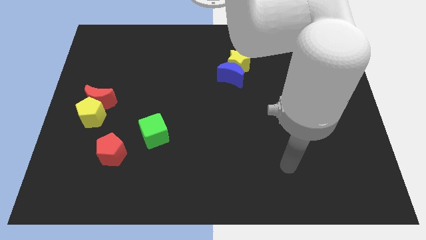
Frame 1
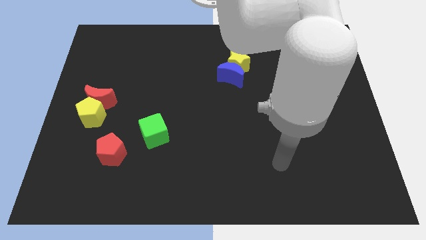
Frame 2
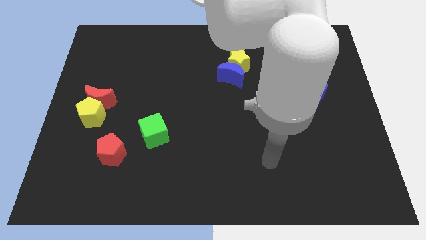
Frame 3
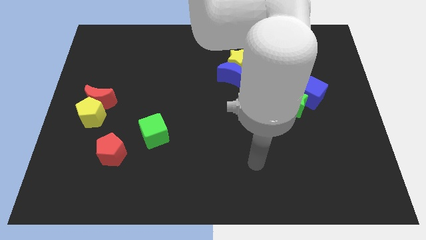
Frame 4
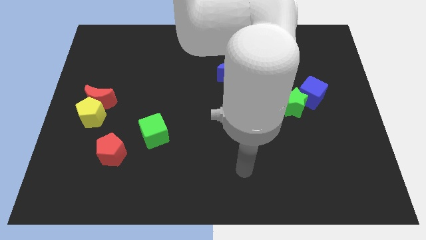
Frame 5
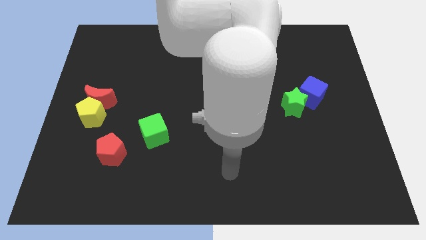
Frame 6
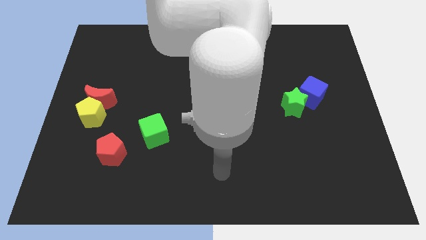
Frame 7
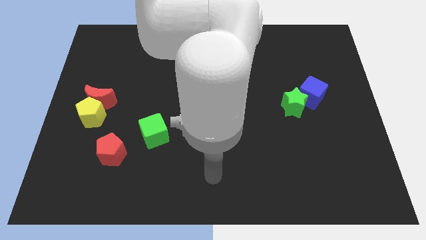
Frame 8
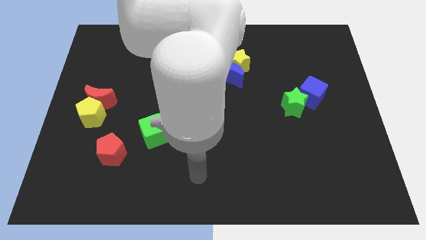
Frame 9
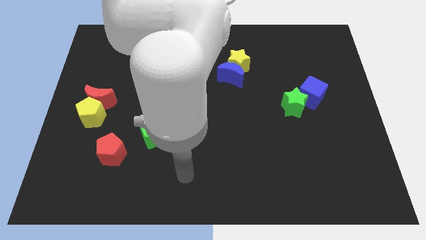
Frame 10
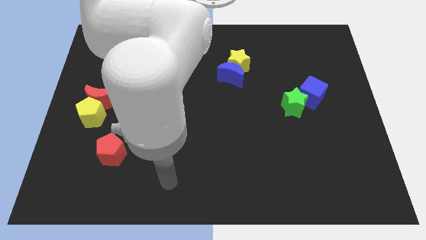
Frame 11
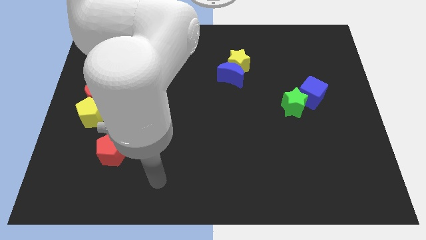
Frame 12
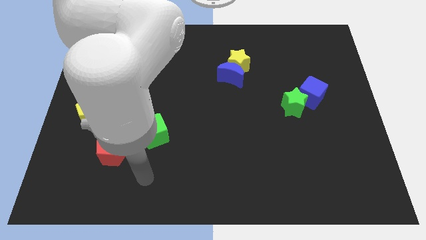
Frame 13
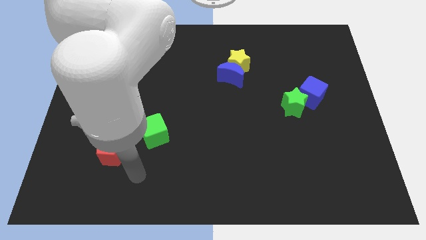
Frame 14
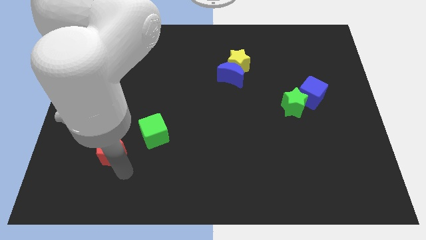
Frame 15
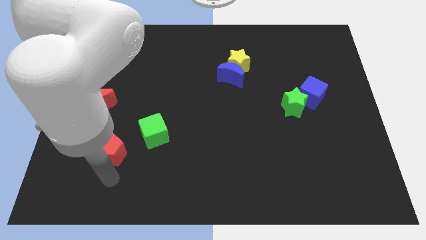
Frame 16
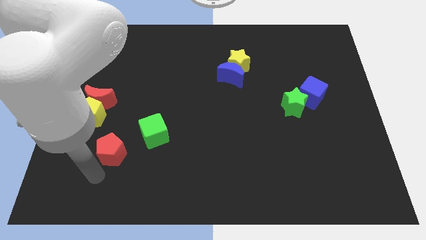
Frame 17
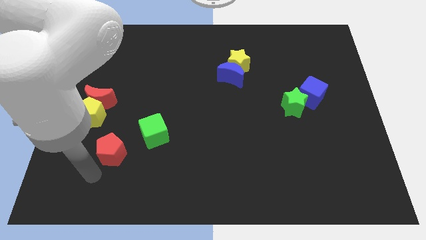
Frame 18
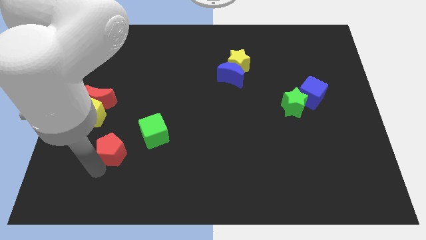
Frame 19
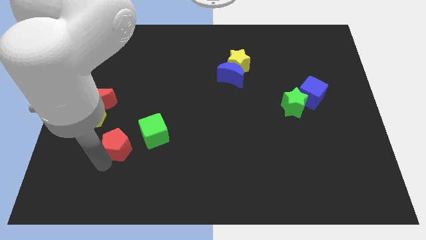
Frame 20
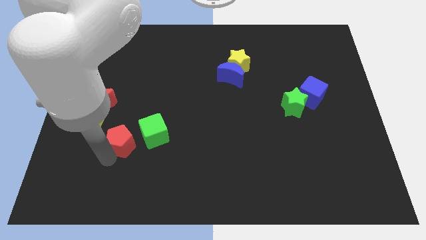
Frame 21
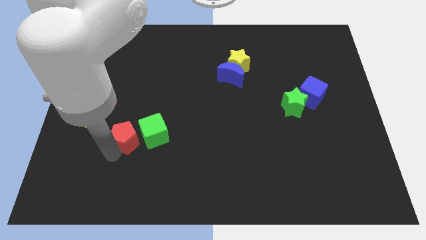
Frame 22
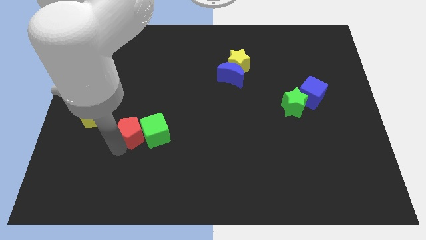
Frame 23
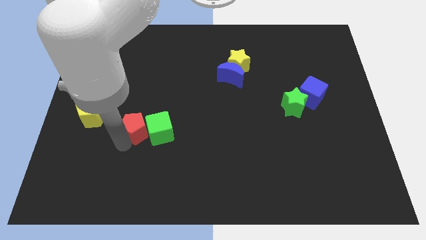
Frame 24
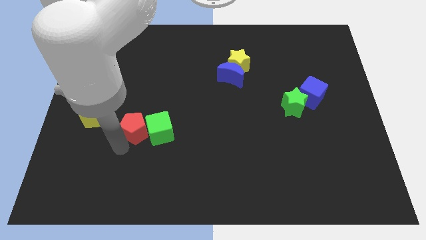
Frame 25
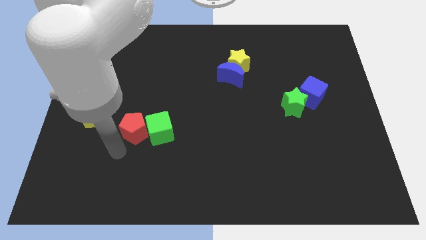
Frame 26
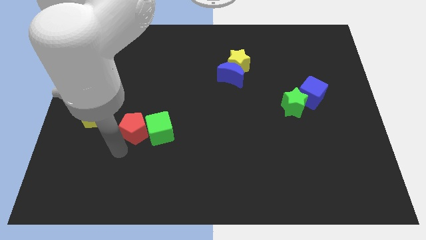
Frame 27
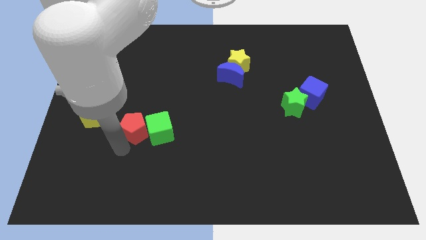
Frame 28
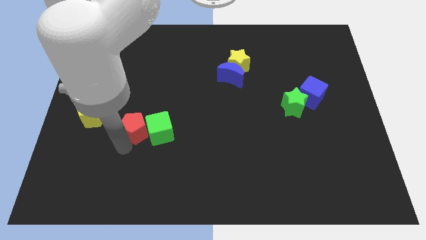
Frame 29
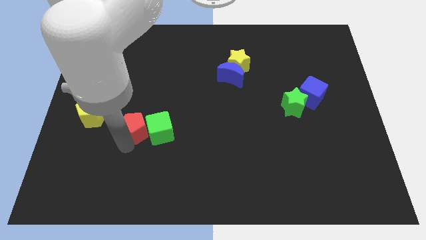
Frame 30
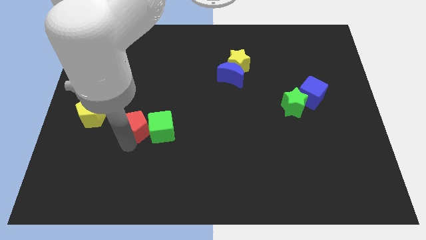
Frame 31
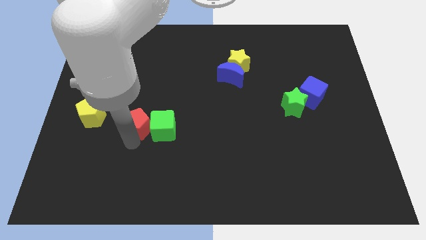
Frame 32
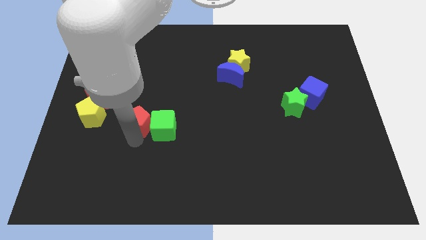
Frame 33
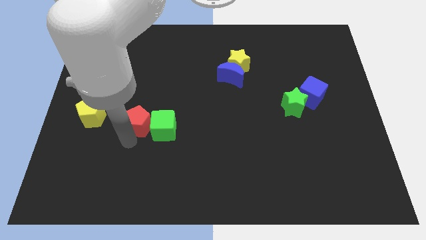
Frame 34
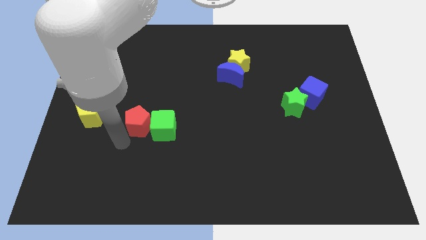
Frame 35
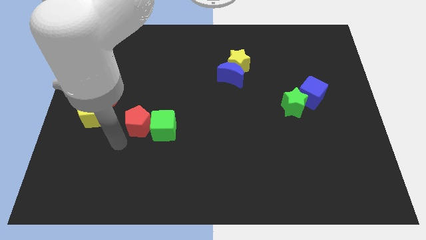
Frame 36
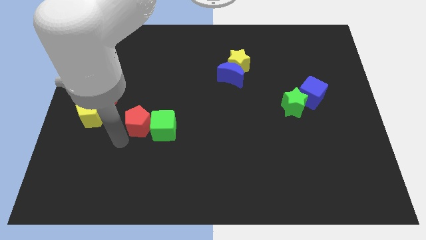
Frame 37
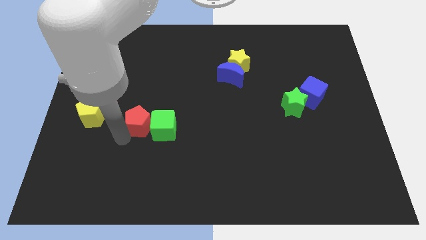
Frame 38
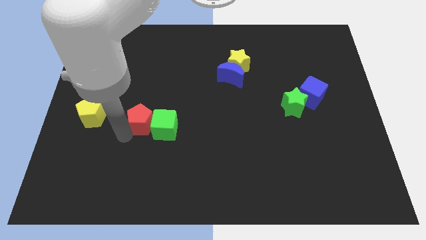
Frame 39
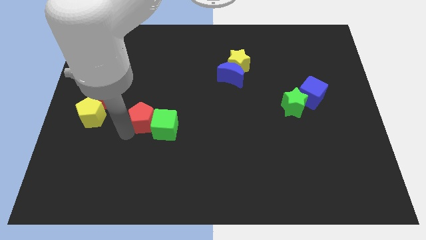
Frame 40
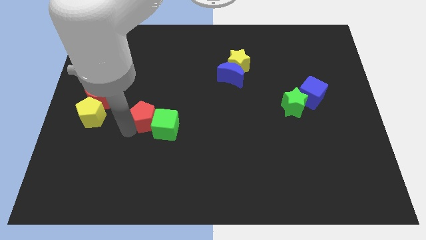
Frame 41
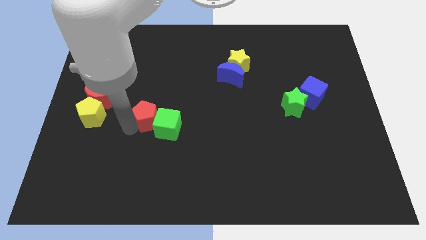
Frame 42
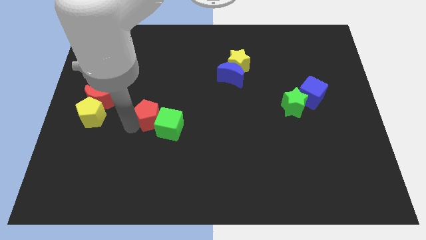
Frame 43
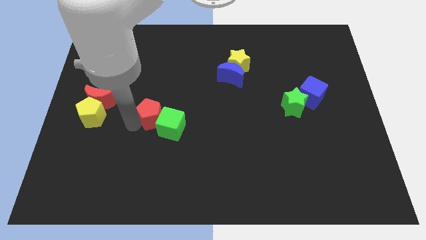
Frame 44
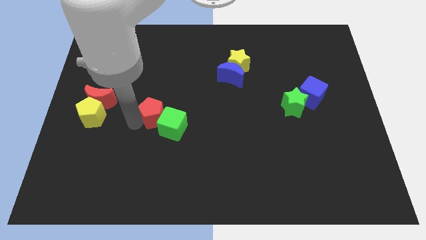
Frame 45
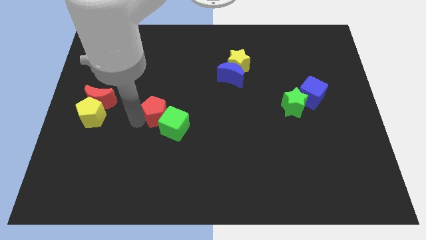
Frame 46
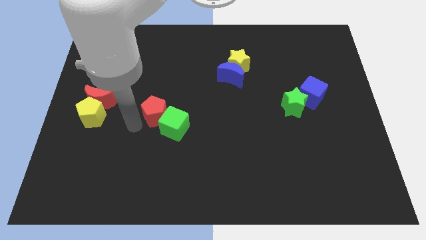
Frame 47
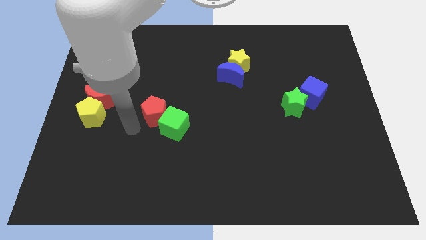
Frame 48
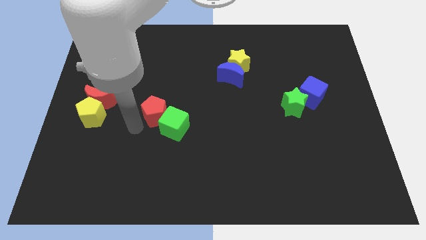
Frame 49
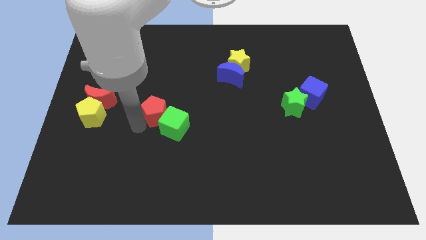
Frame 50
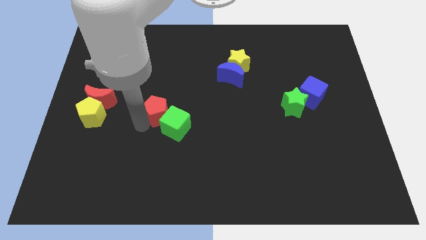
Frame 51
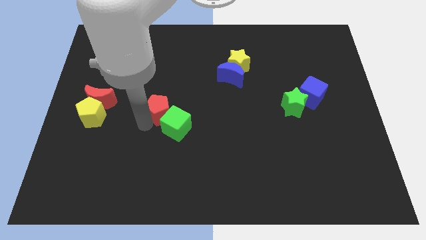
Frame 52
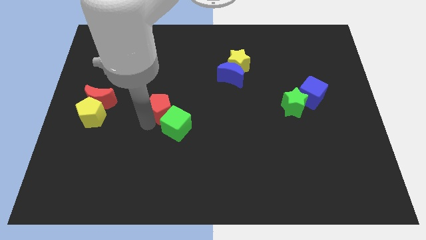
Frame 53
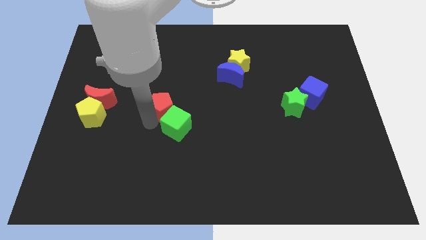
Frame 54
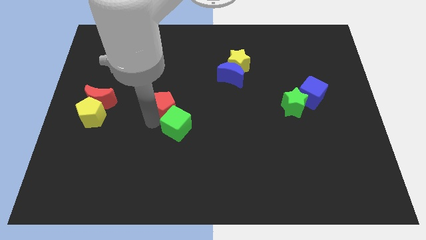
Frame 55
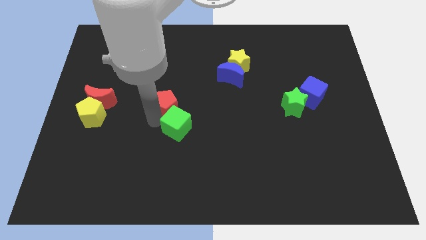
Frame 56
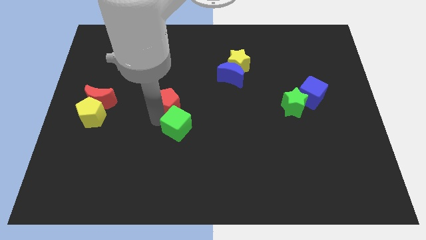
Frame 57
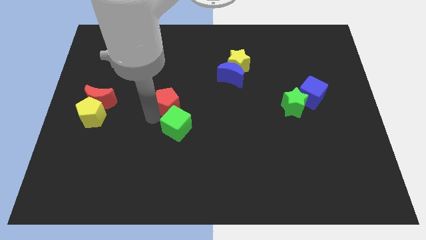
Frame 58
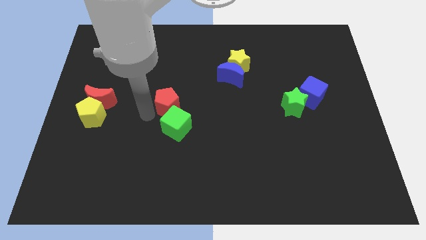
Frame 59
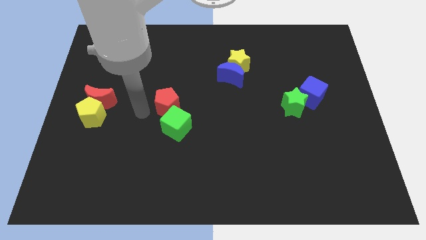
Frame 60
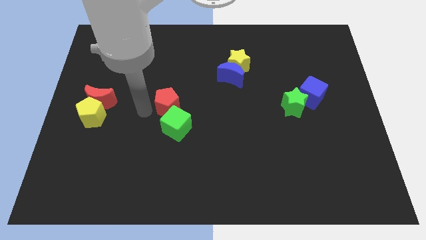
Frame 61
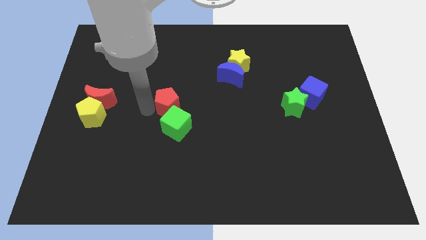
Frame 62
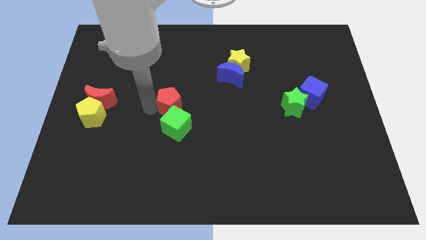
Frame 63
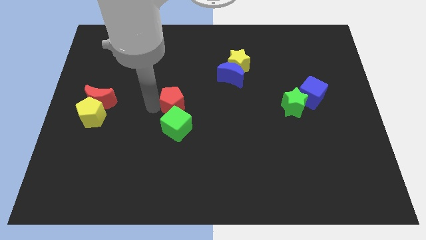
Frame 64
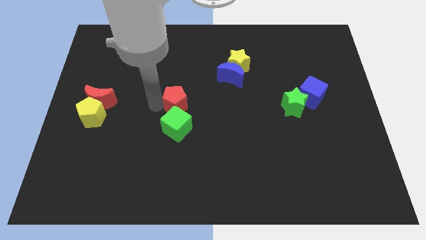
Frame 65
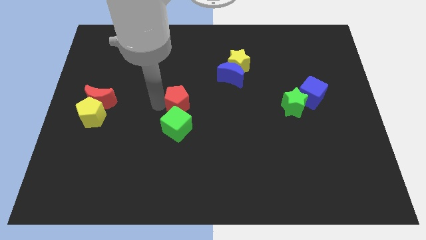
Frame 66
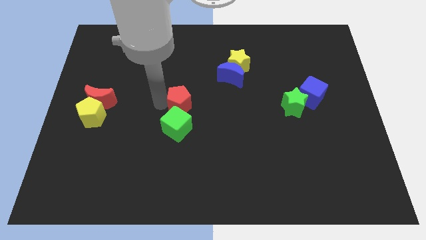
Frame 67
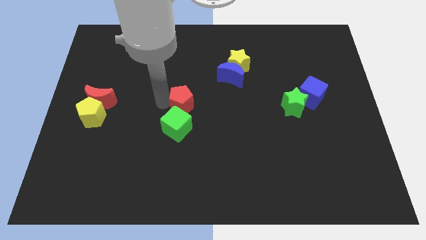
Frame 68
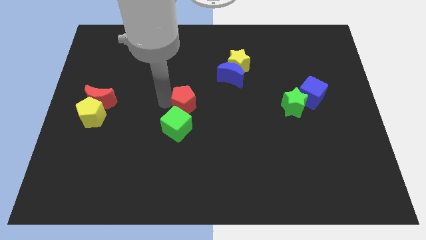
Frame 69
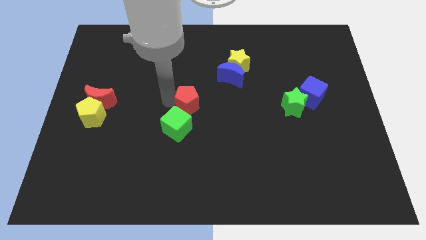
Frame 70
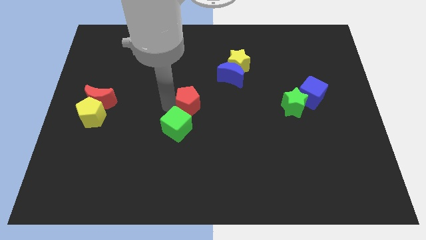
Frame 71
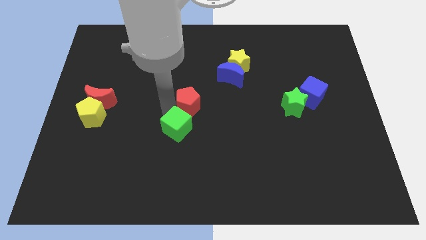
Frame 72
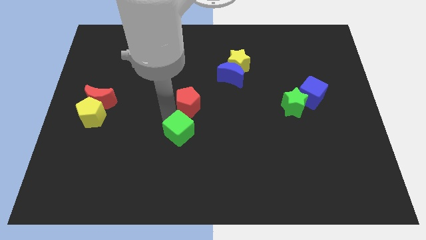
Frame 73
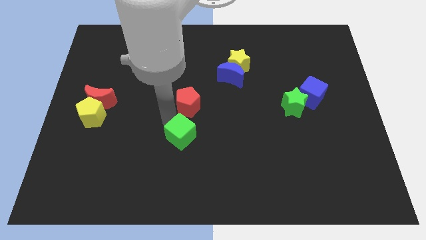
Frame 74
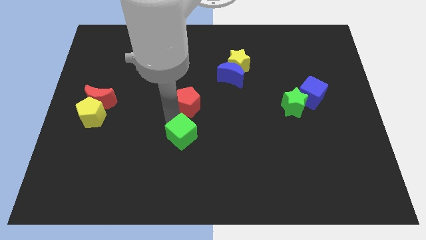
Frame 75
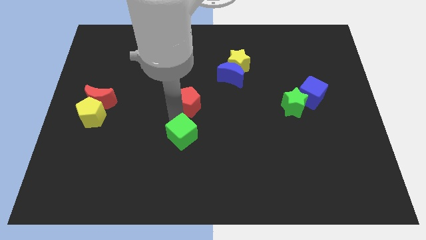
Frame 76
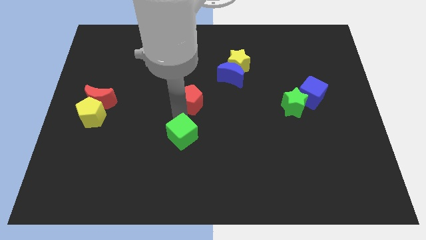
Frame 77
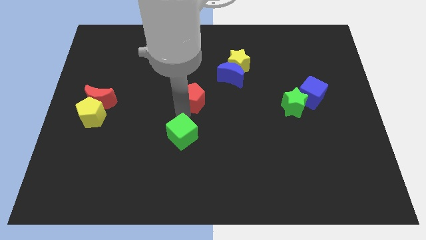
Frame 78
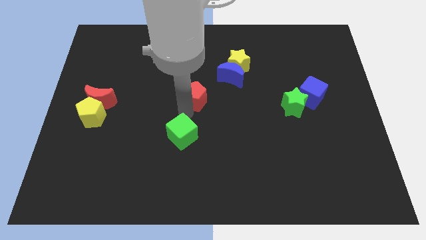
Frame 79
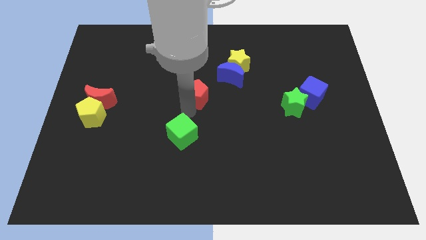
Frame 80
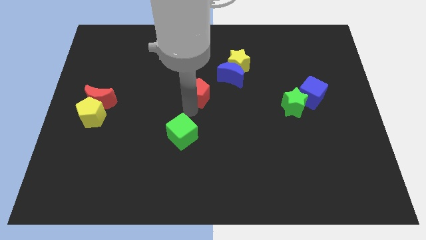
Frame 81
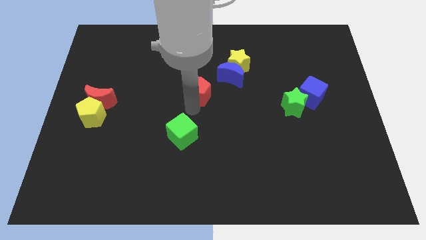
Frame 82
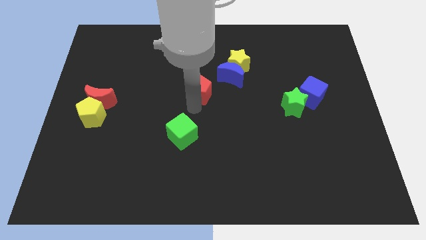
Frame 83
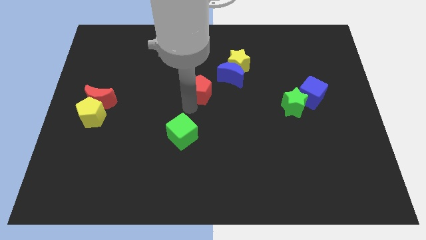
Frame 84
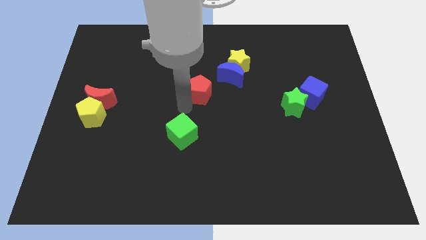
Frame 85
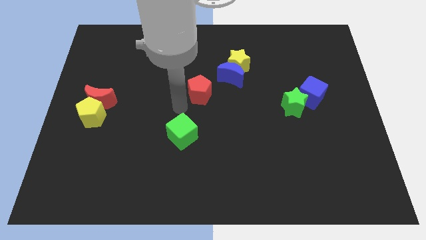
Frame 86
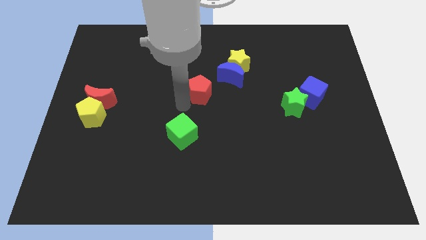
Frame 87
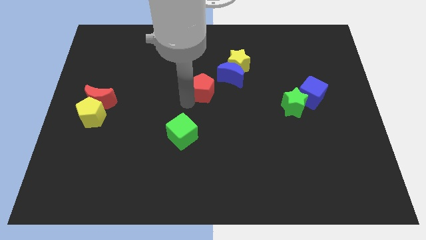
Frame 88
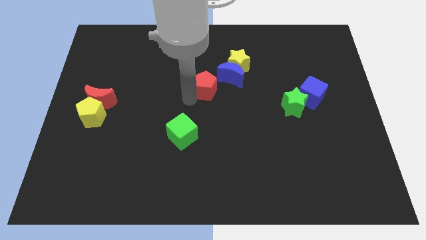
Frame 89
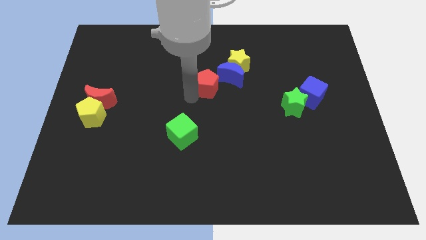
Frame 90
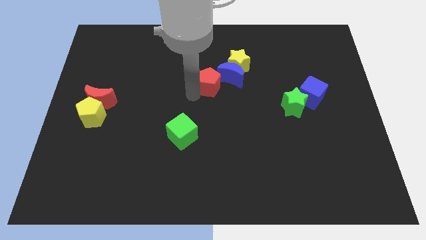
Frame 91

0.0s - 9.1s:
push the red pentagon next to the blue moon
